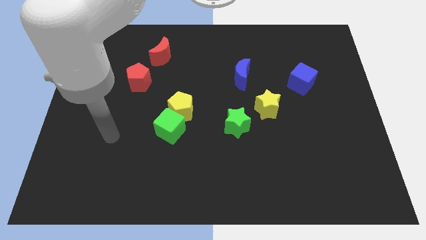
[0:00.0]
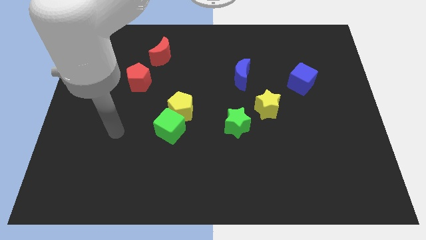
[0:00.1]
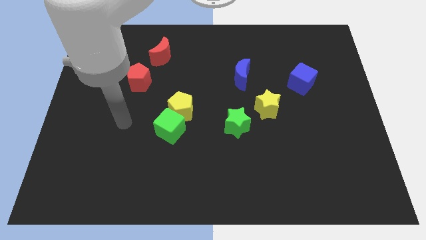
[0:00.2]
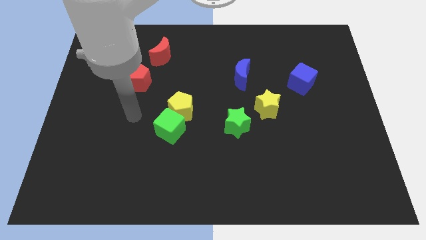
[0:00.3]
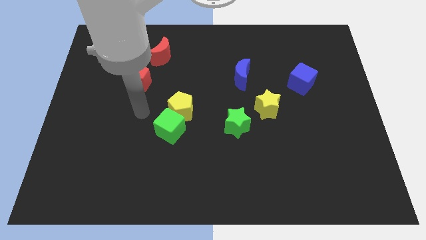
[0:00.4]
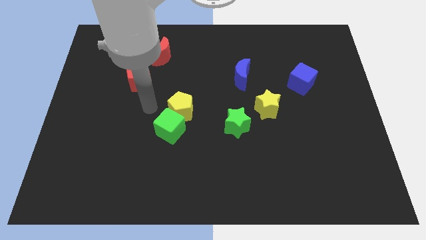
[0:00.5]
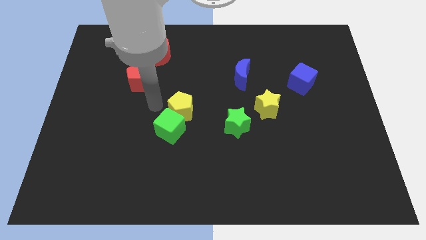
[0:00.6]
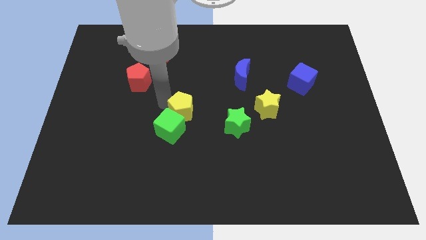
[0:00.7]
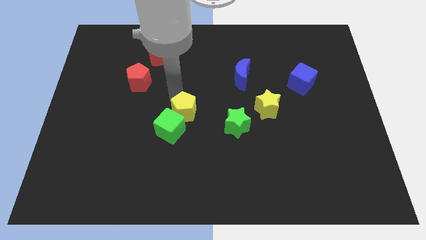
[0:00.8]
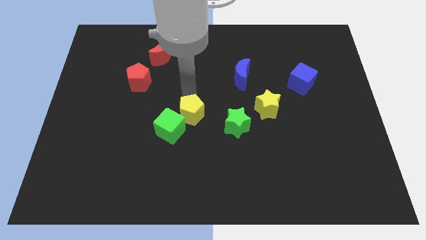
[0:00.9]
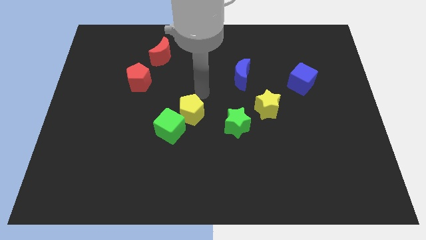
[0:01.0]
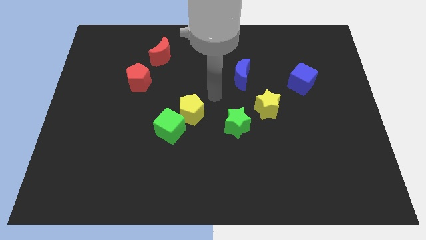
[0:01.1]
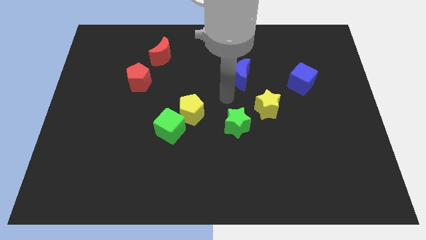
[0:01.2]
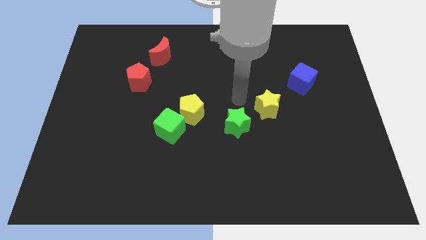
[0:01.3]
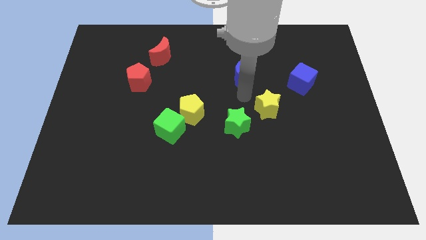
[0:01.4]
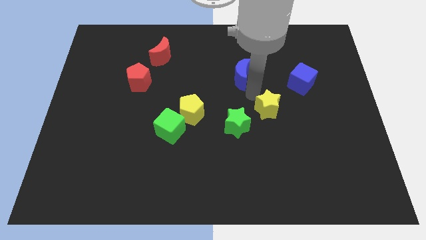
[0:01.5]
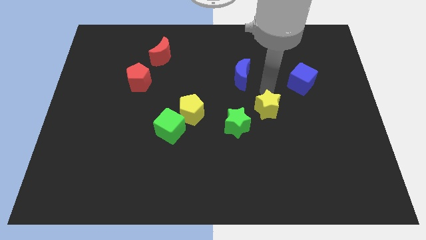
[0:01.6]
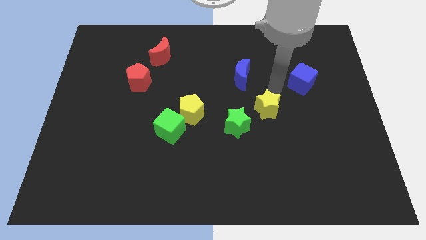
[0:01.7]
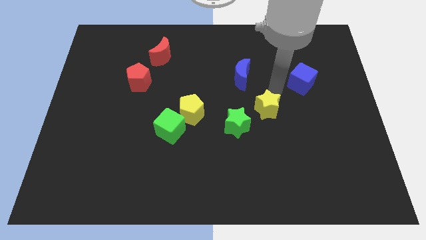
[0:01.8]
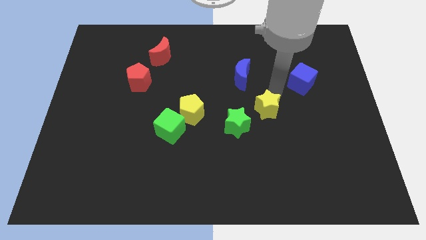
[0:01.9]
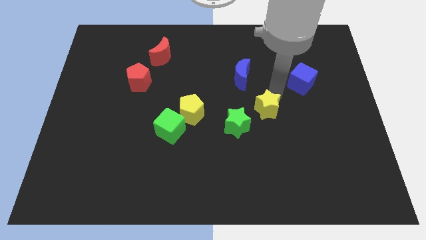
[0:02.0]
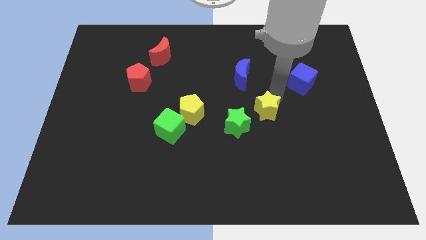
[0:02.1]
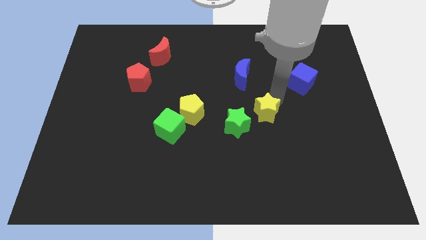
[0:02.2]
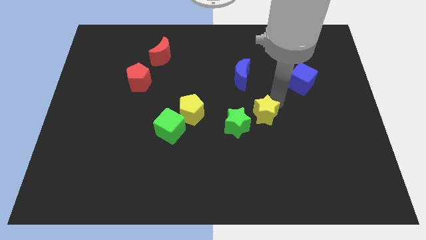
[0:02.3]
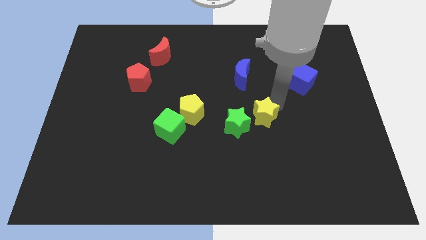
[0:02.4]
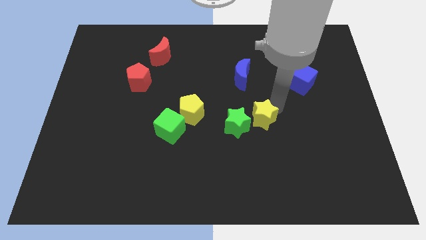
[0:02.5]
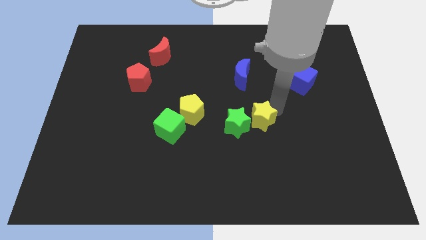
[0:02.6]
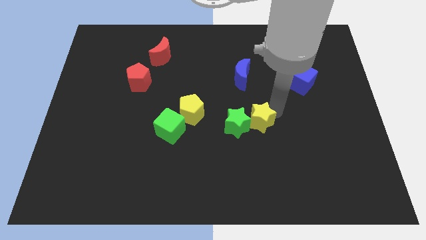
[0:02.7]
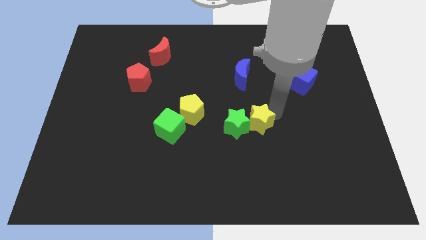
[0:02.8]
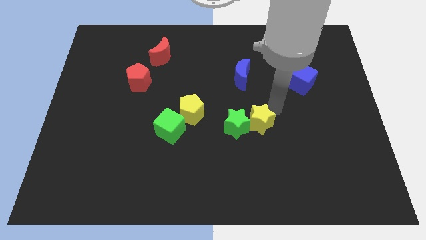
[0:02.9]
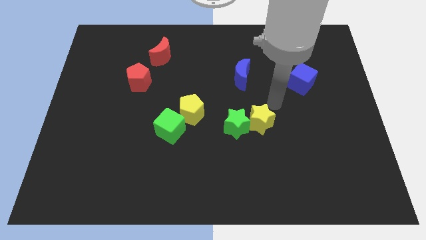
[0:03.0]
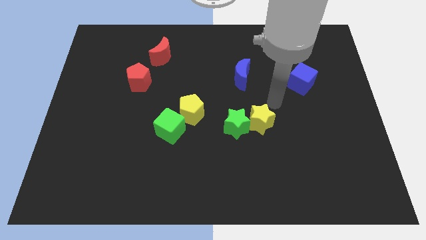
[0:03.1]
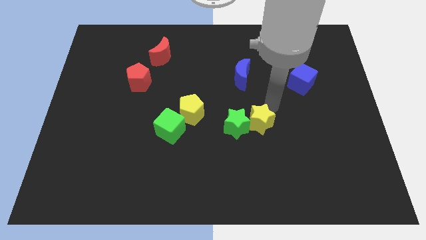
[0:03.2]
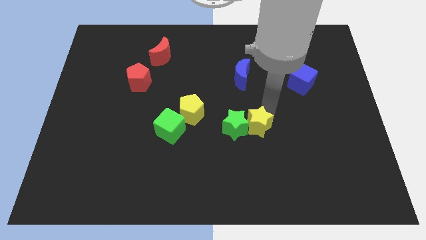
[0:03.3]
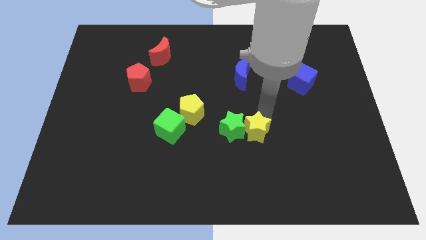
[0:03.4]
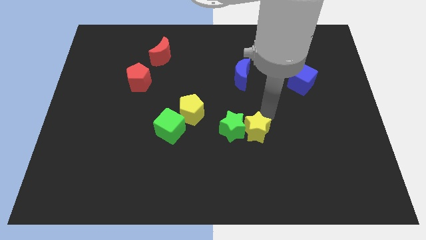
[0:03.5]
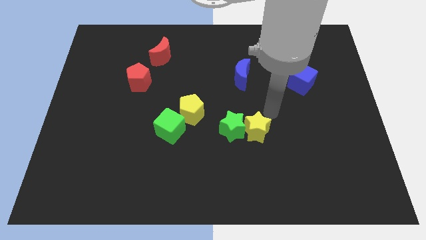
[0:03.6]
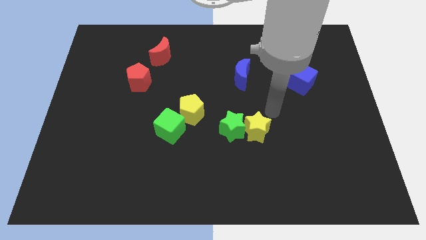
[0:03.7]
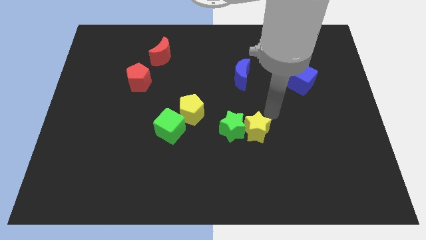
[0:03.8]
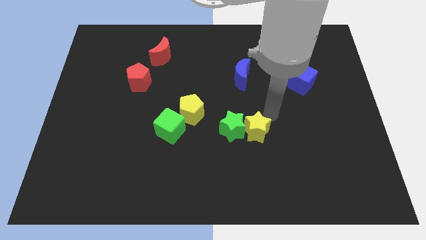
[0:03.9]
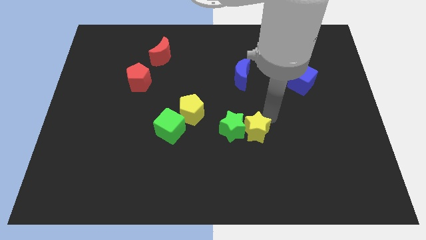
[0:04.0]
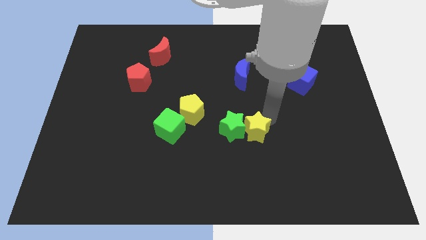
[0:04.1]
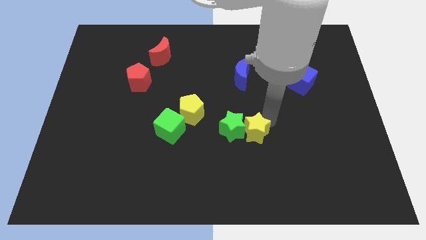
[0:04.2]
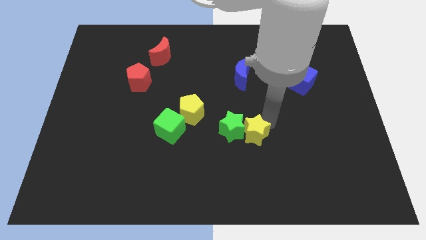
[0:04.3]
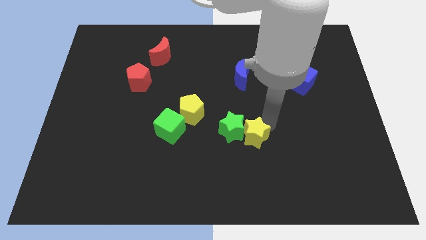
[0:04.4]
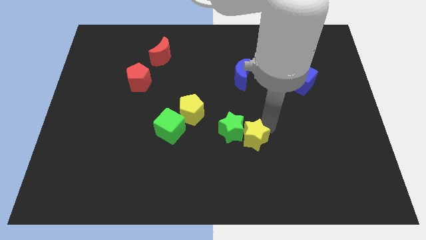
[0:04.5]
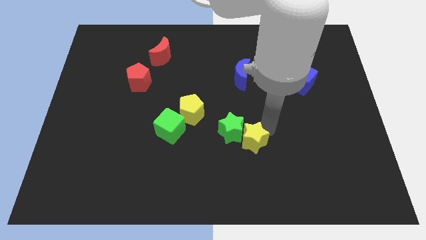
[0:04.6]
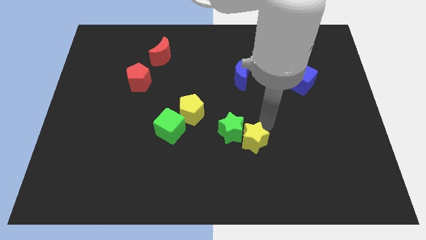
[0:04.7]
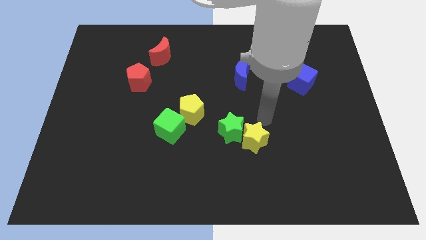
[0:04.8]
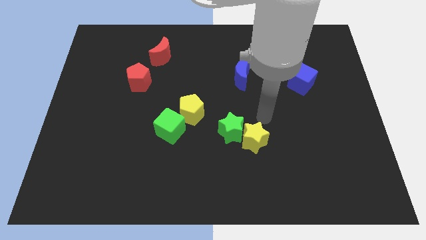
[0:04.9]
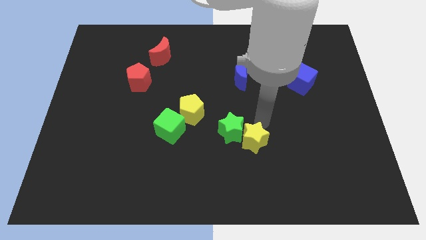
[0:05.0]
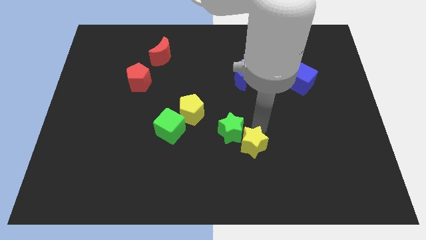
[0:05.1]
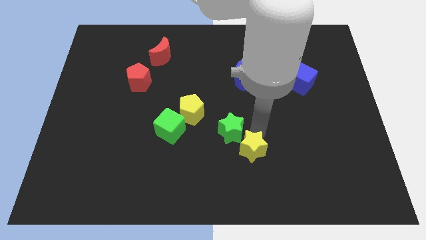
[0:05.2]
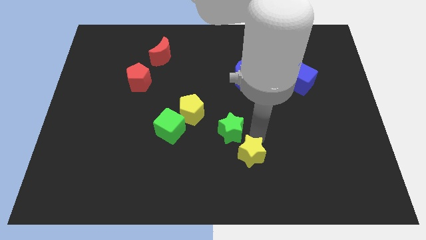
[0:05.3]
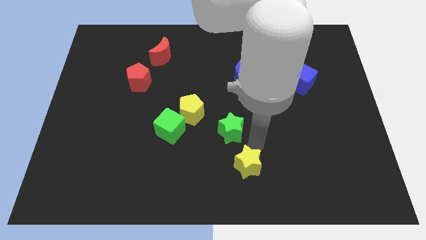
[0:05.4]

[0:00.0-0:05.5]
slide the yellow star to the bottom

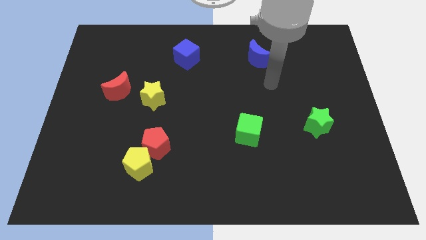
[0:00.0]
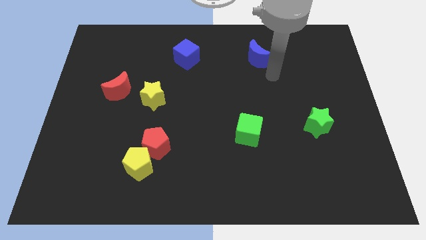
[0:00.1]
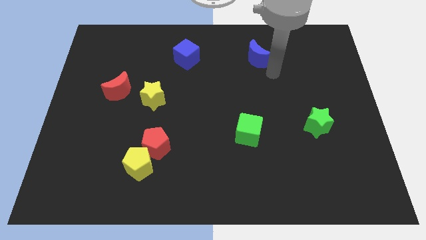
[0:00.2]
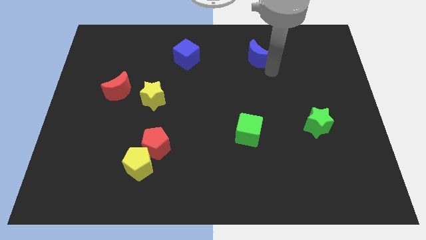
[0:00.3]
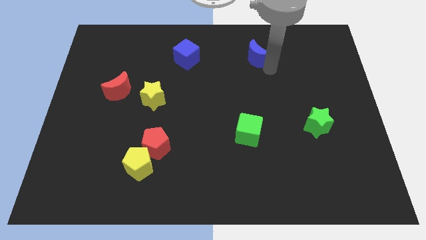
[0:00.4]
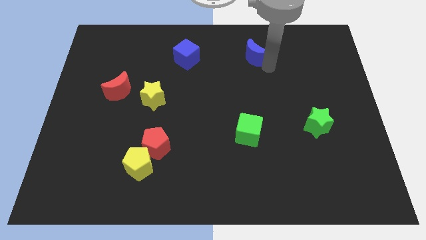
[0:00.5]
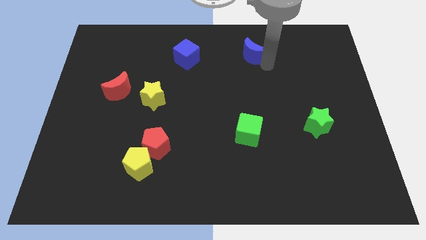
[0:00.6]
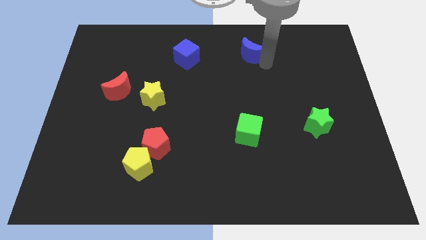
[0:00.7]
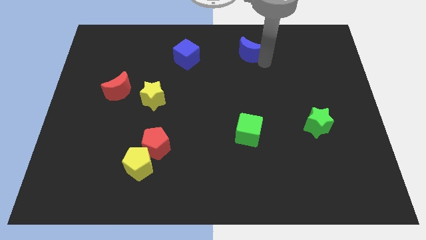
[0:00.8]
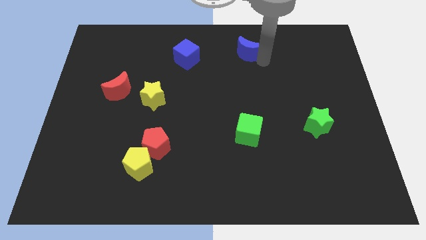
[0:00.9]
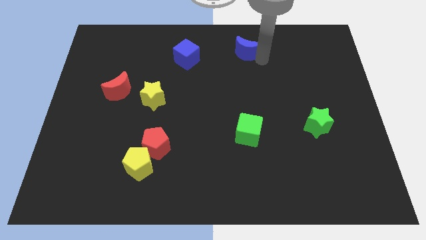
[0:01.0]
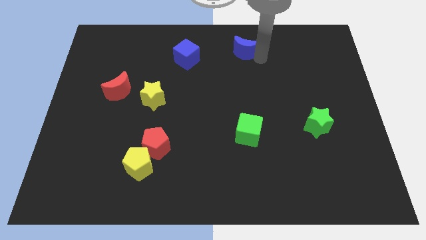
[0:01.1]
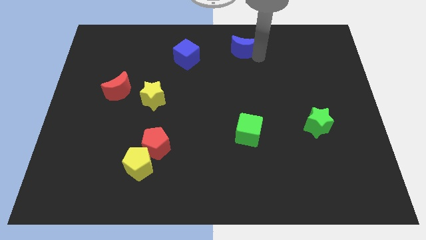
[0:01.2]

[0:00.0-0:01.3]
slide the blue moon to the towards your base
